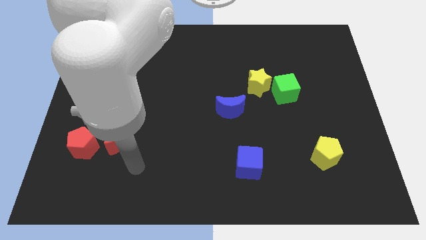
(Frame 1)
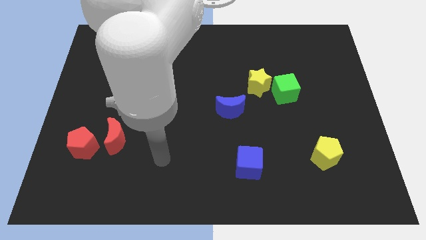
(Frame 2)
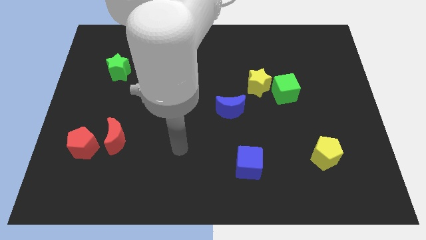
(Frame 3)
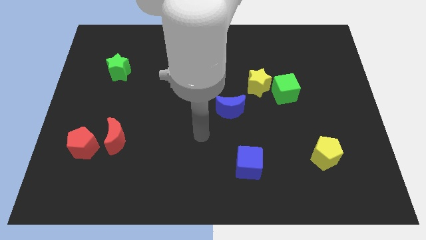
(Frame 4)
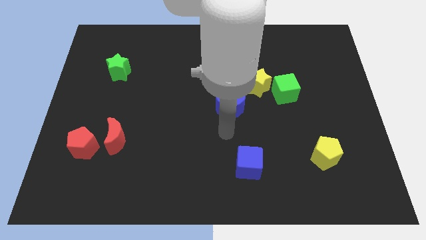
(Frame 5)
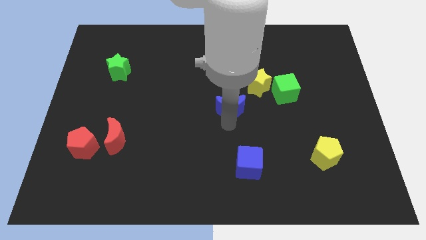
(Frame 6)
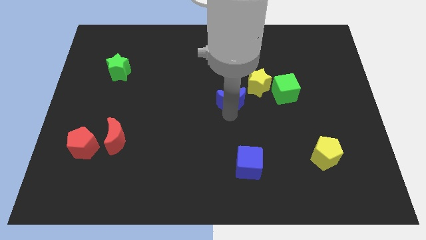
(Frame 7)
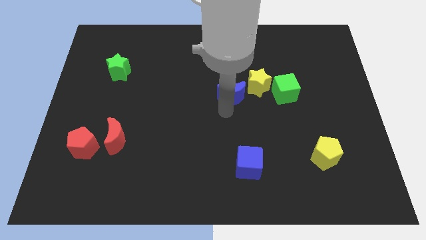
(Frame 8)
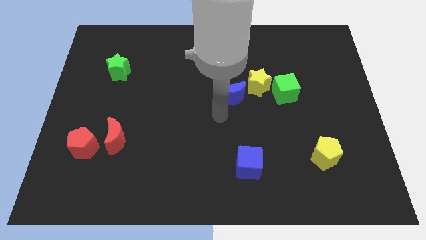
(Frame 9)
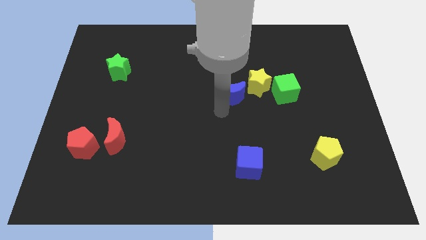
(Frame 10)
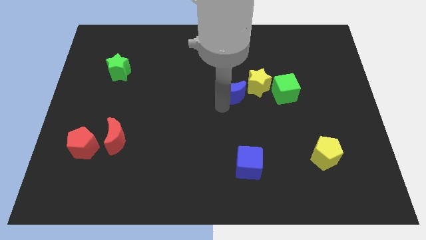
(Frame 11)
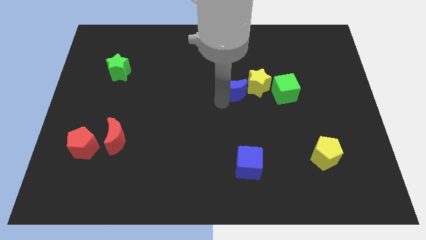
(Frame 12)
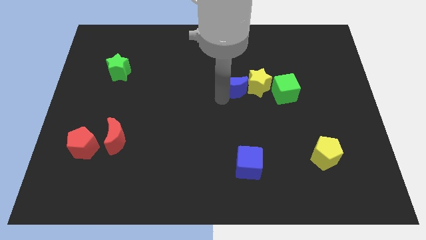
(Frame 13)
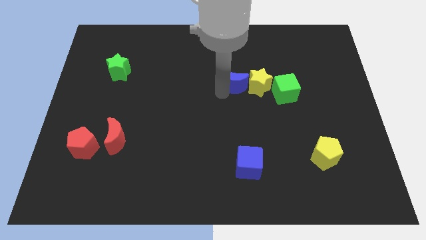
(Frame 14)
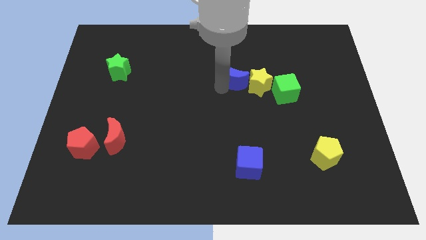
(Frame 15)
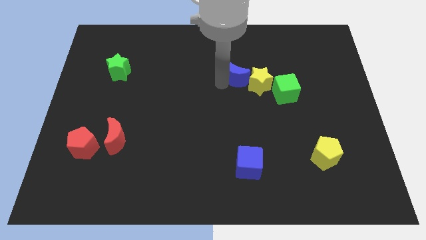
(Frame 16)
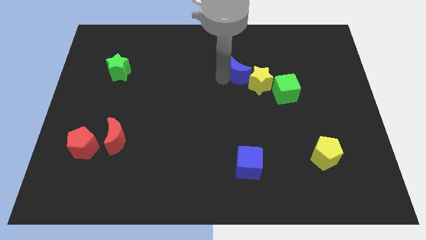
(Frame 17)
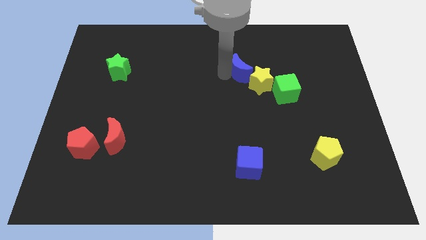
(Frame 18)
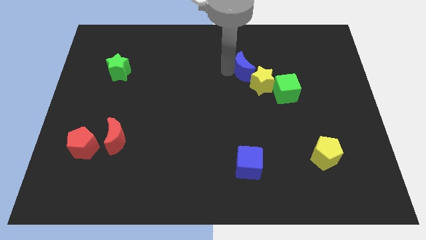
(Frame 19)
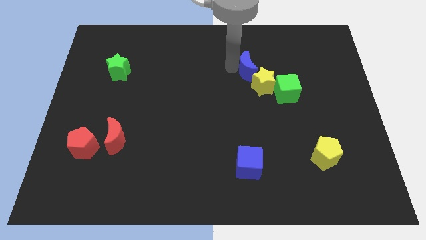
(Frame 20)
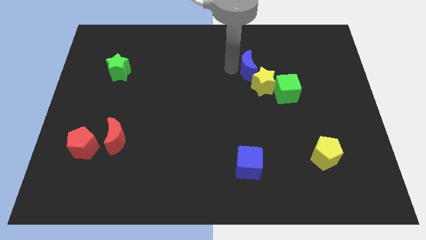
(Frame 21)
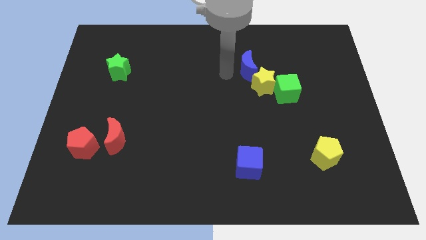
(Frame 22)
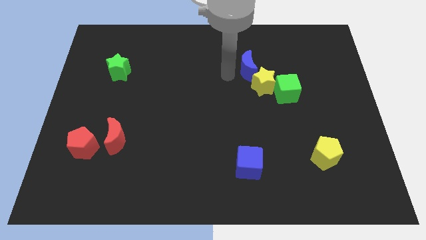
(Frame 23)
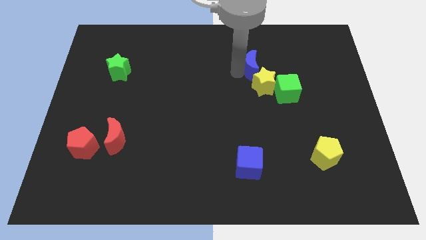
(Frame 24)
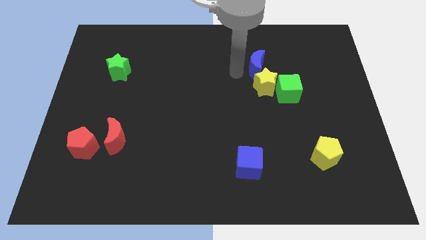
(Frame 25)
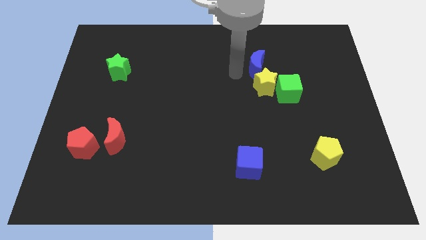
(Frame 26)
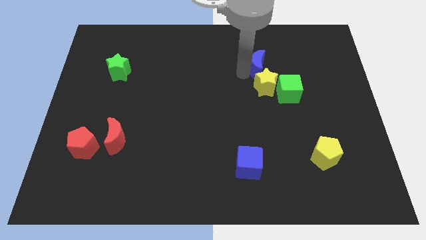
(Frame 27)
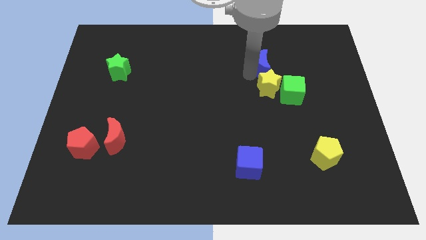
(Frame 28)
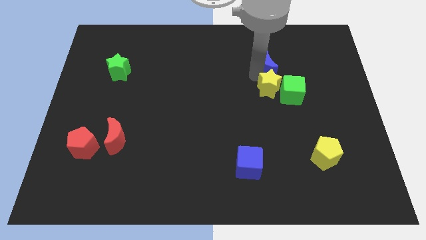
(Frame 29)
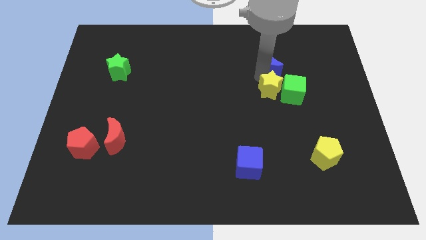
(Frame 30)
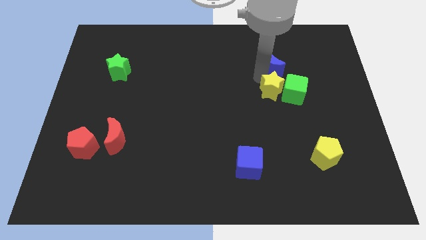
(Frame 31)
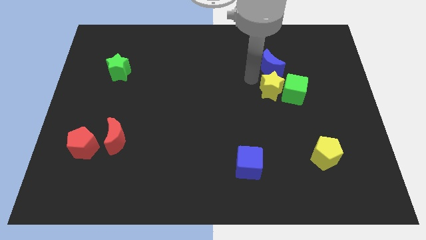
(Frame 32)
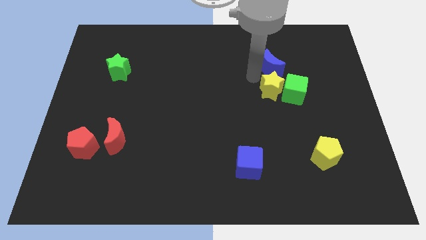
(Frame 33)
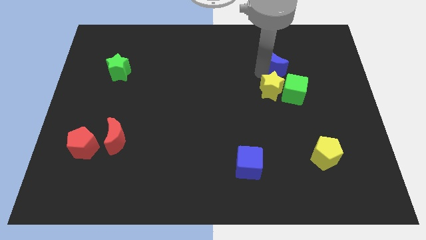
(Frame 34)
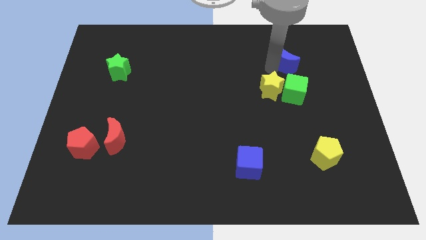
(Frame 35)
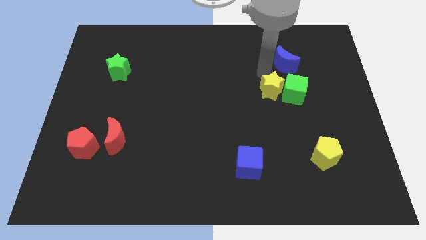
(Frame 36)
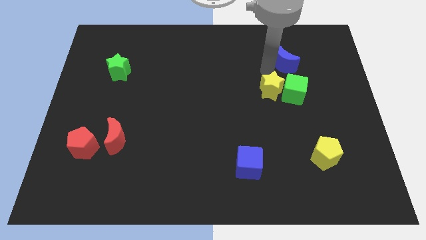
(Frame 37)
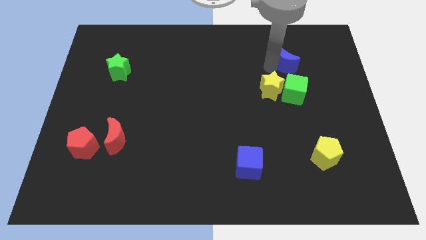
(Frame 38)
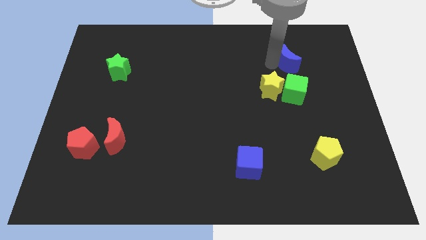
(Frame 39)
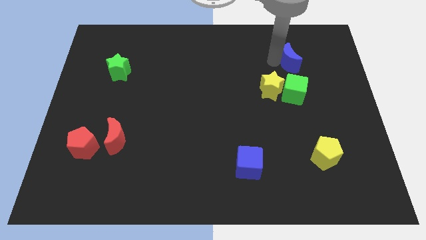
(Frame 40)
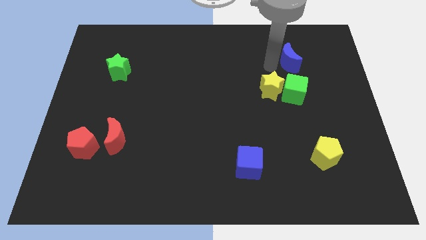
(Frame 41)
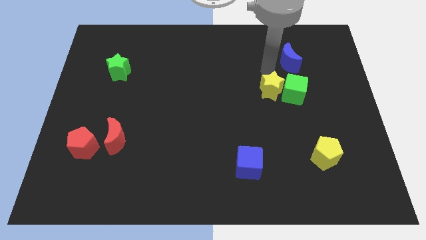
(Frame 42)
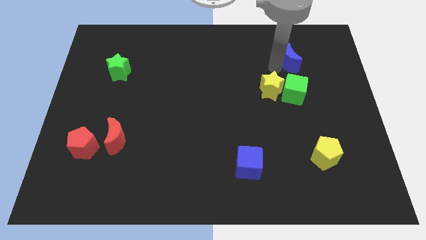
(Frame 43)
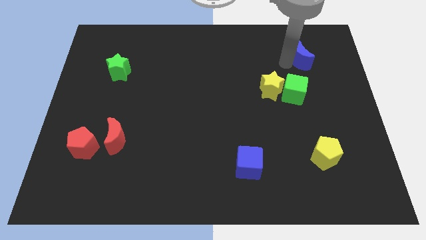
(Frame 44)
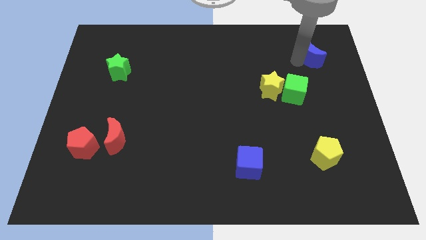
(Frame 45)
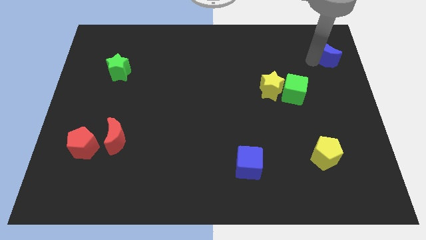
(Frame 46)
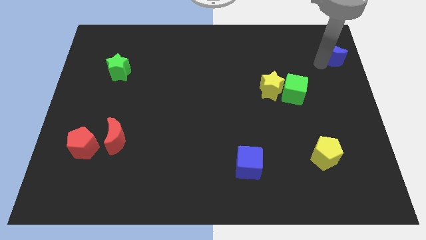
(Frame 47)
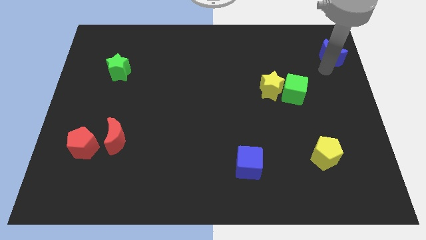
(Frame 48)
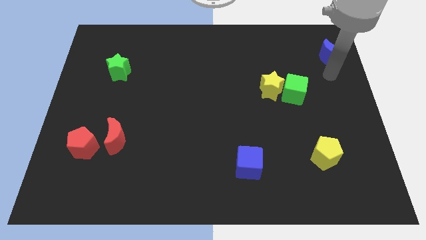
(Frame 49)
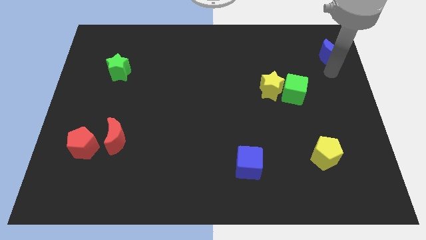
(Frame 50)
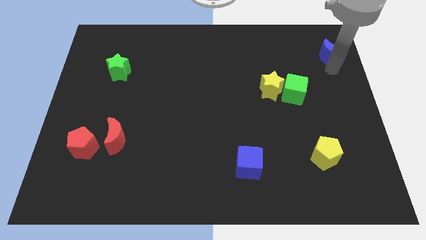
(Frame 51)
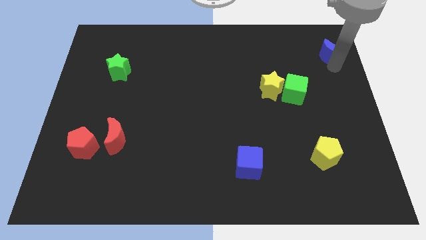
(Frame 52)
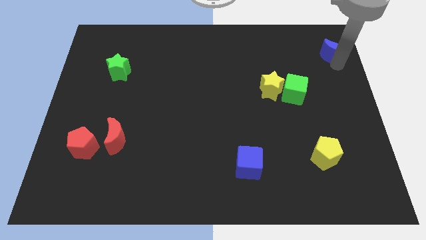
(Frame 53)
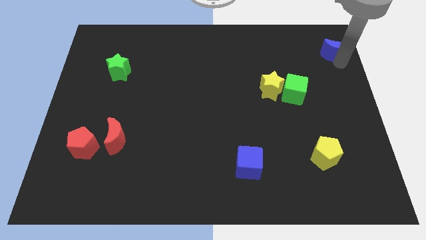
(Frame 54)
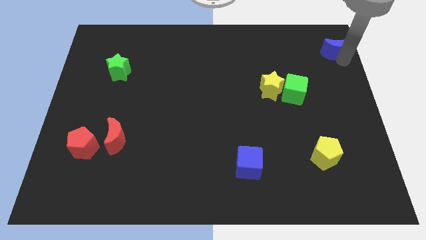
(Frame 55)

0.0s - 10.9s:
slide the blue moon to the top right of the board

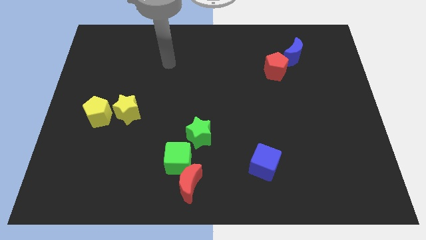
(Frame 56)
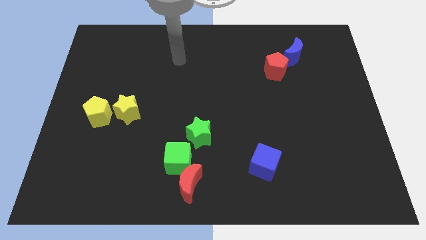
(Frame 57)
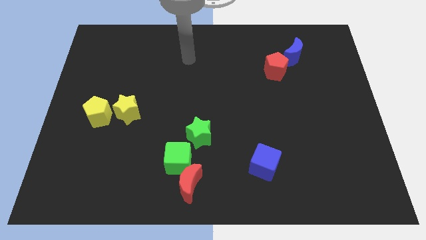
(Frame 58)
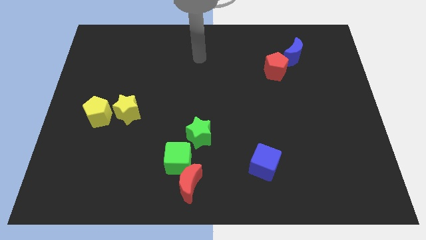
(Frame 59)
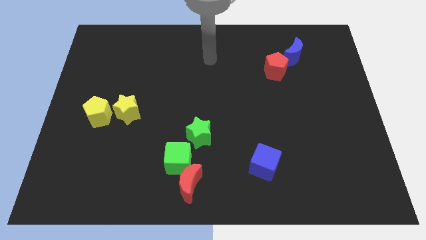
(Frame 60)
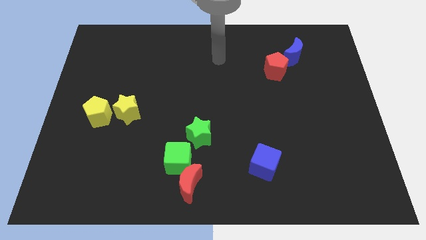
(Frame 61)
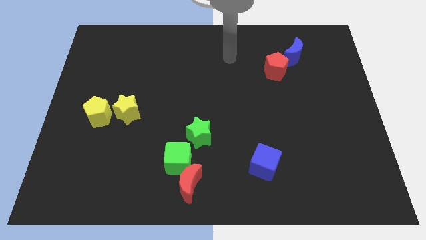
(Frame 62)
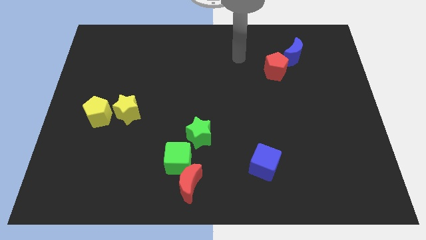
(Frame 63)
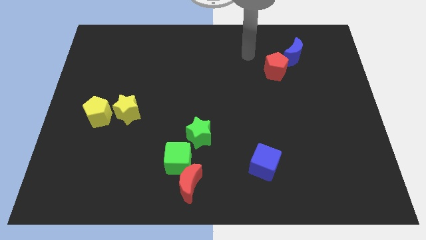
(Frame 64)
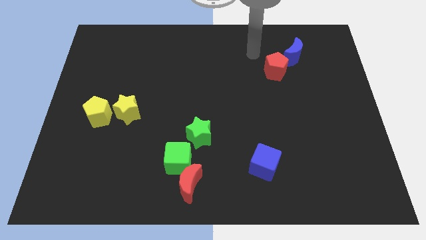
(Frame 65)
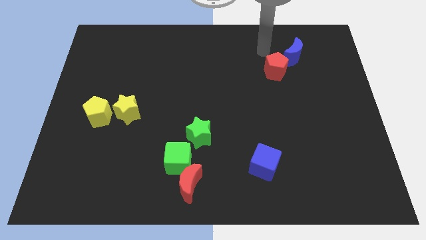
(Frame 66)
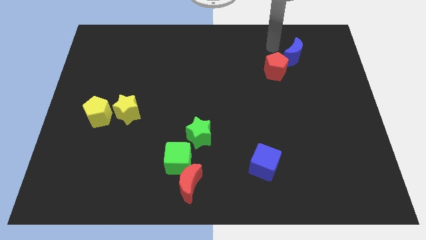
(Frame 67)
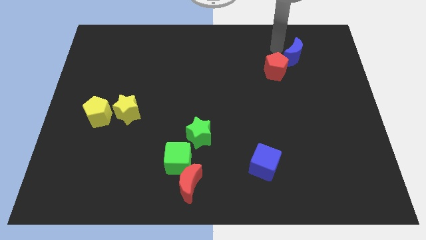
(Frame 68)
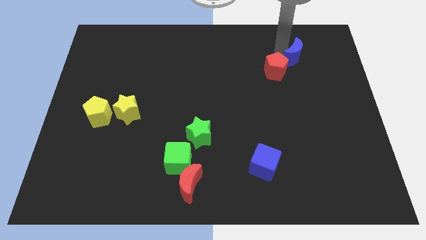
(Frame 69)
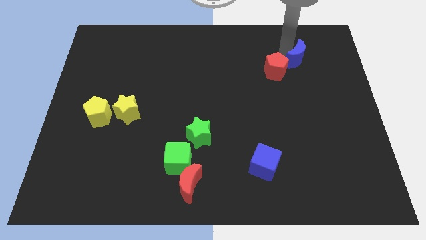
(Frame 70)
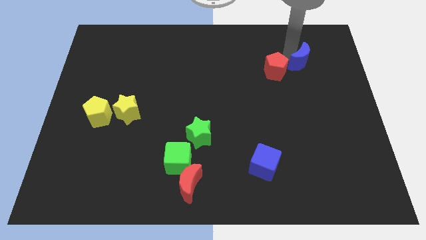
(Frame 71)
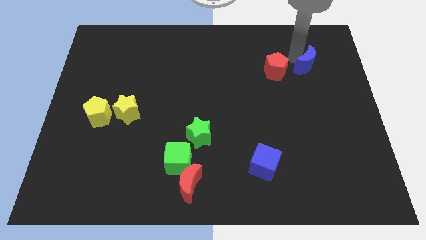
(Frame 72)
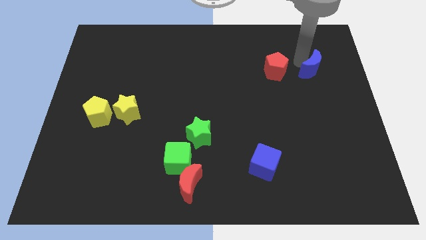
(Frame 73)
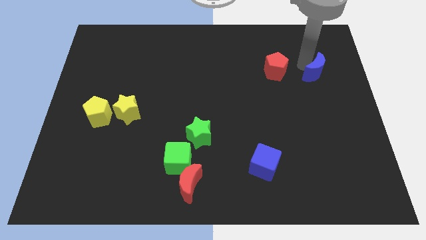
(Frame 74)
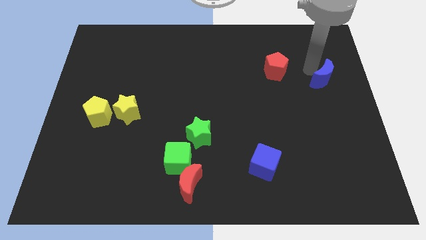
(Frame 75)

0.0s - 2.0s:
put the blue moon to the right side
